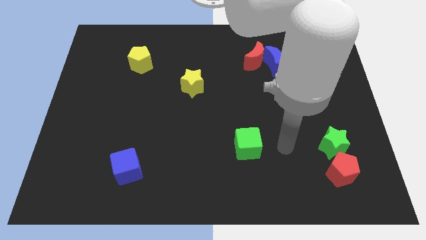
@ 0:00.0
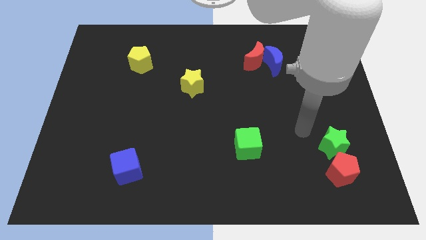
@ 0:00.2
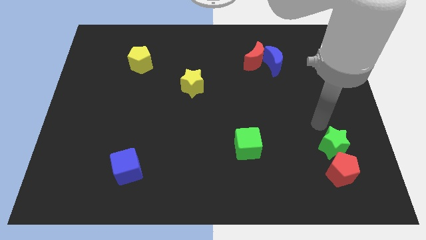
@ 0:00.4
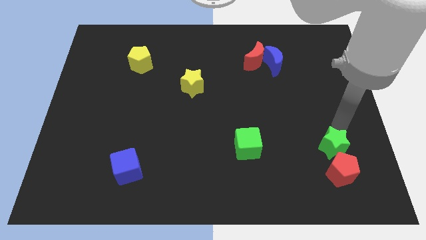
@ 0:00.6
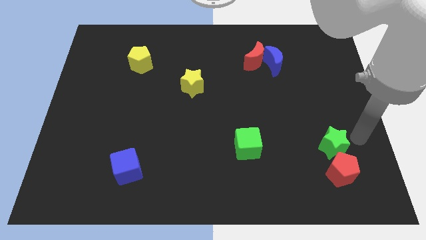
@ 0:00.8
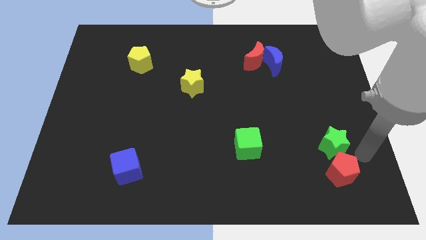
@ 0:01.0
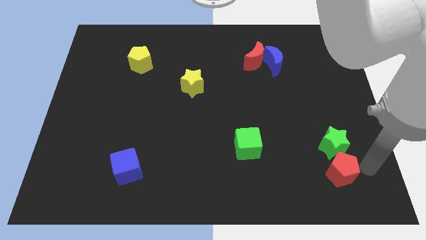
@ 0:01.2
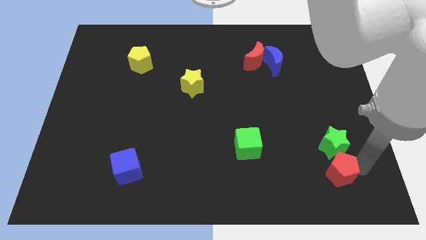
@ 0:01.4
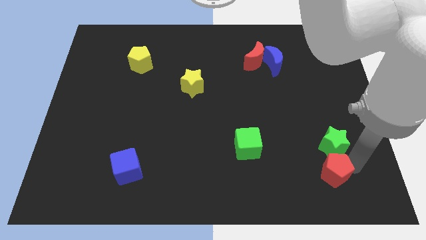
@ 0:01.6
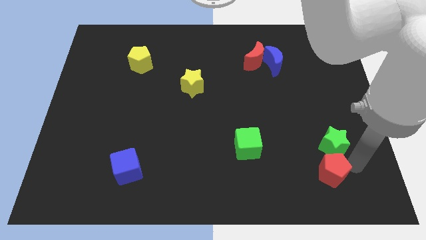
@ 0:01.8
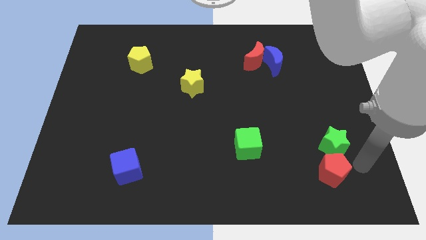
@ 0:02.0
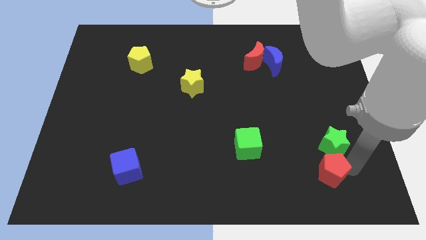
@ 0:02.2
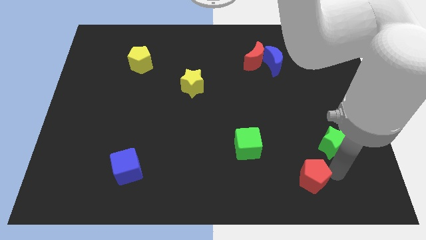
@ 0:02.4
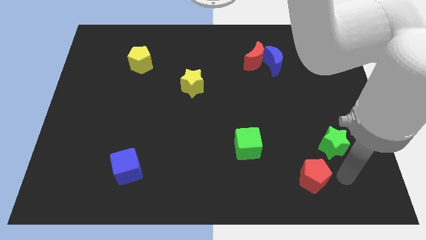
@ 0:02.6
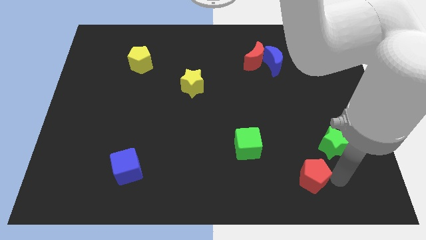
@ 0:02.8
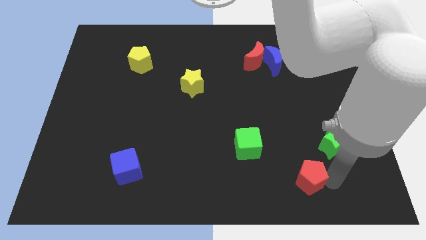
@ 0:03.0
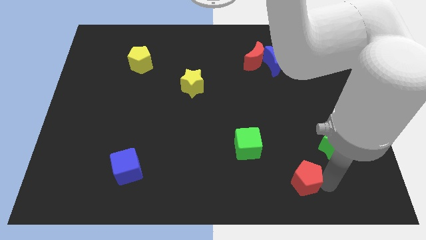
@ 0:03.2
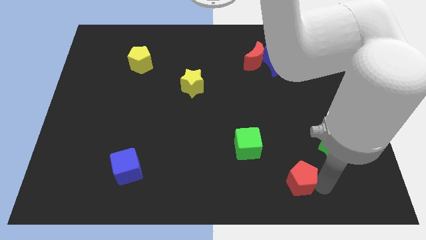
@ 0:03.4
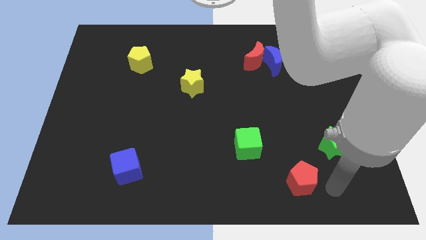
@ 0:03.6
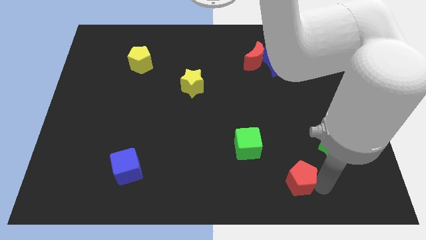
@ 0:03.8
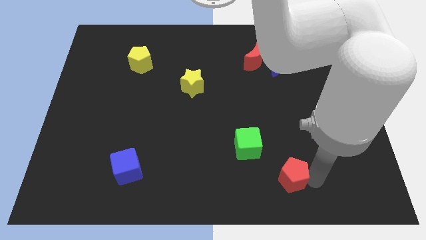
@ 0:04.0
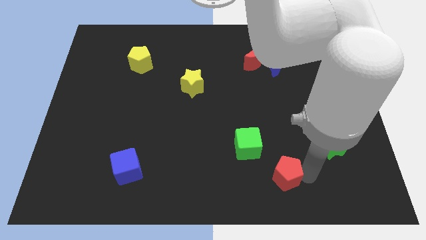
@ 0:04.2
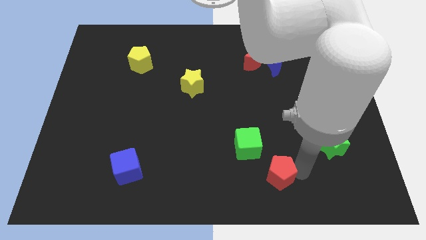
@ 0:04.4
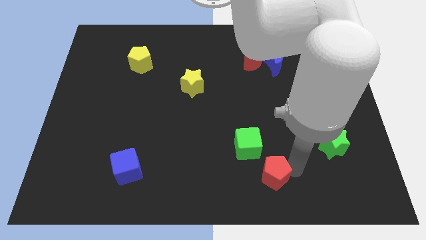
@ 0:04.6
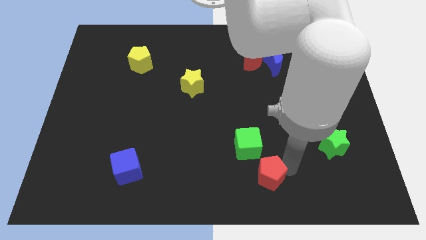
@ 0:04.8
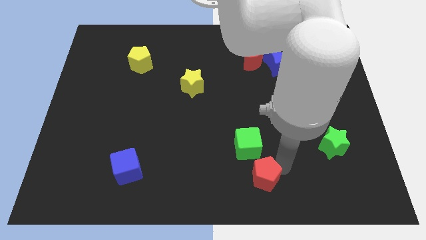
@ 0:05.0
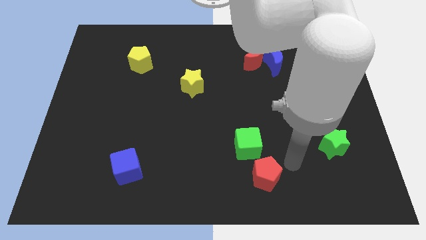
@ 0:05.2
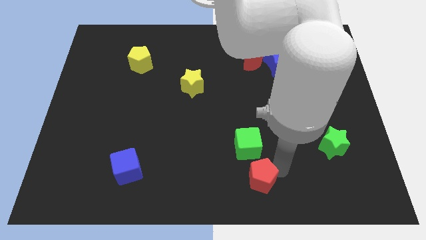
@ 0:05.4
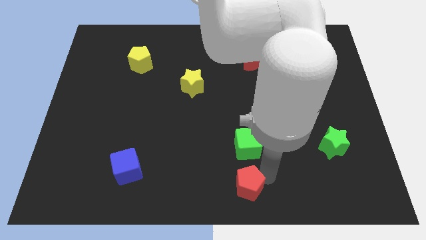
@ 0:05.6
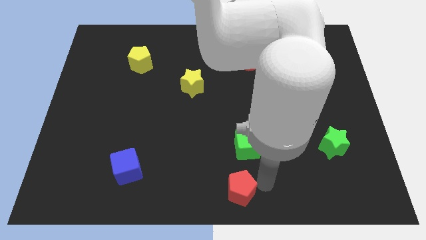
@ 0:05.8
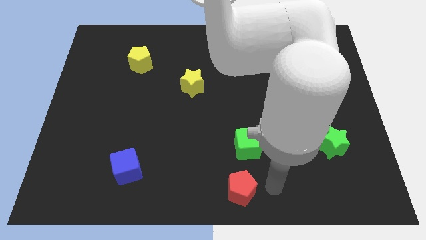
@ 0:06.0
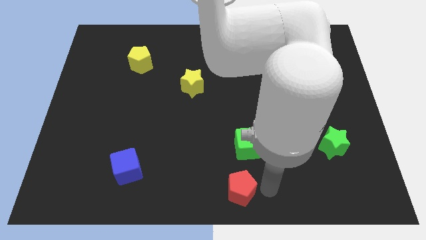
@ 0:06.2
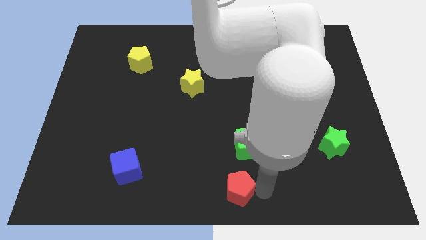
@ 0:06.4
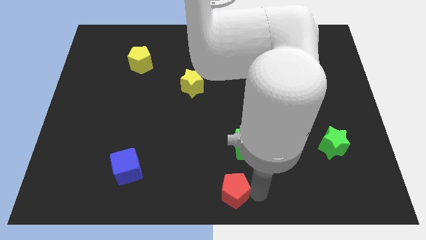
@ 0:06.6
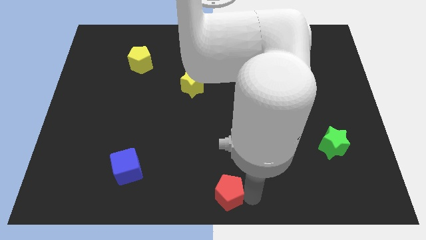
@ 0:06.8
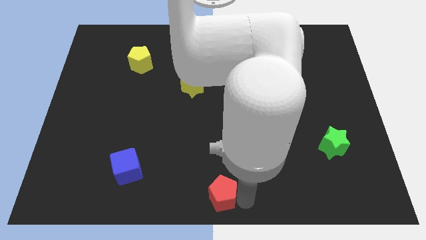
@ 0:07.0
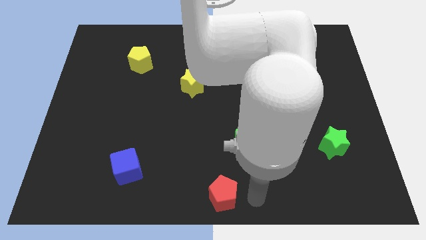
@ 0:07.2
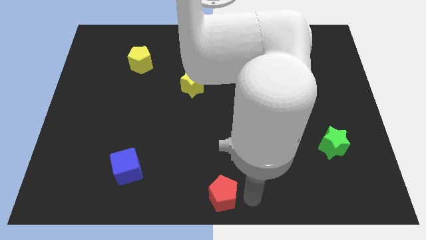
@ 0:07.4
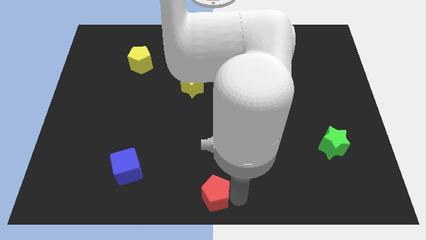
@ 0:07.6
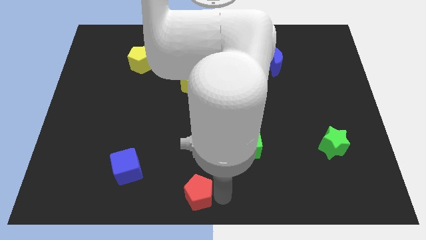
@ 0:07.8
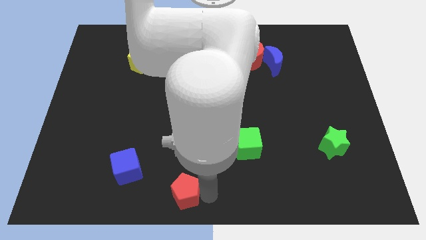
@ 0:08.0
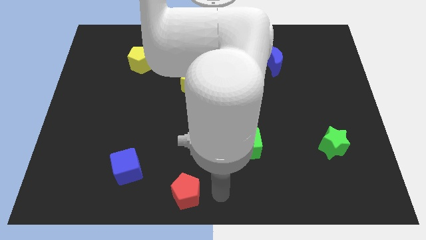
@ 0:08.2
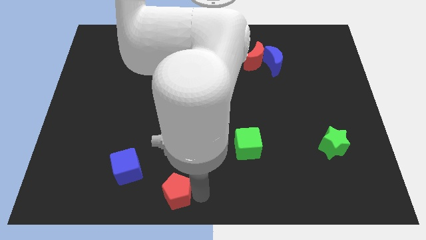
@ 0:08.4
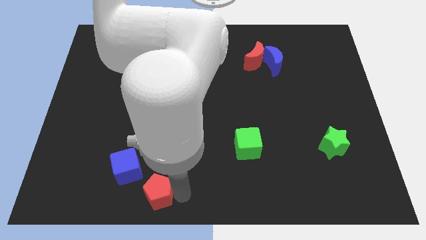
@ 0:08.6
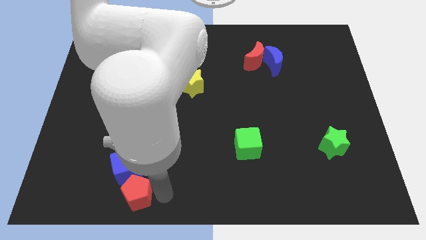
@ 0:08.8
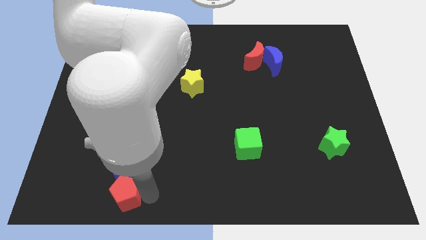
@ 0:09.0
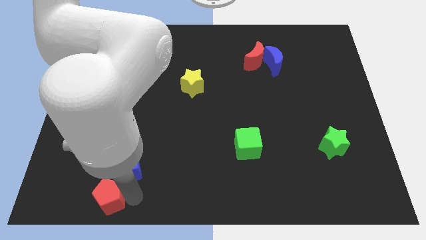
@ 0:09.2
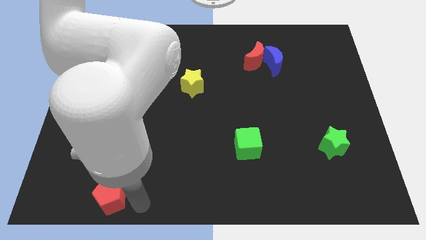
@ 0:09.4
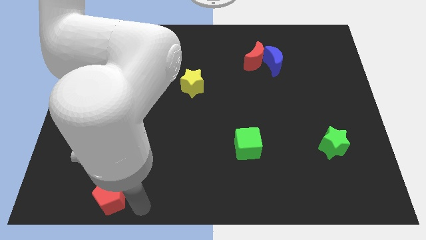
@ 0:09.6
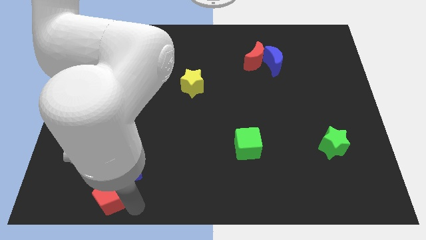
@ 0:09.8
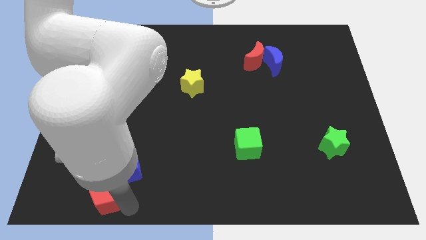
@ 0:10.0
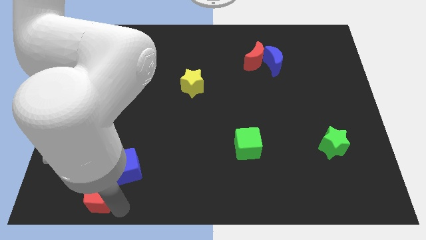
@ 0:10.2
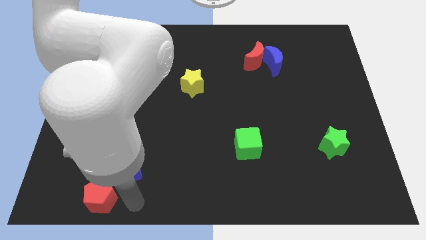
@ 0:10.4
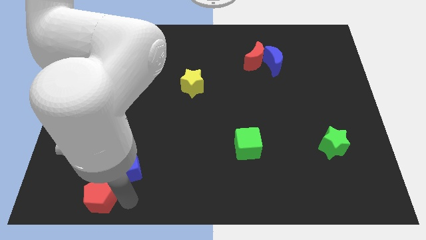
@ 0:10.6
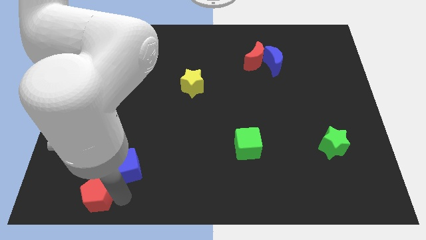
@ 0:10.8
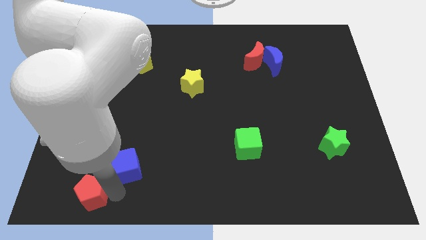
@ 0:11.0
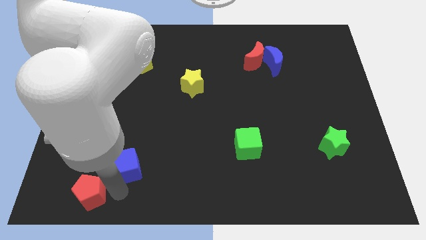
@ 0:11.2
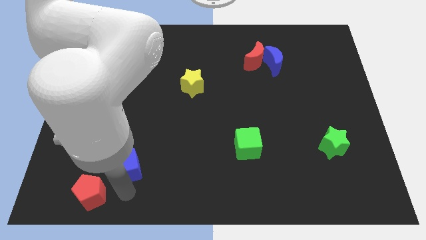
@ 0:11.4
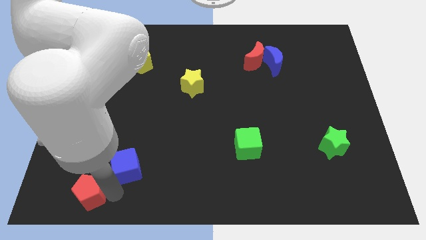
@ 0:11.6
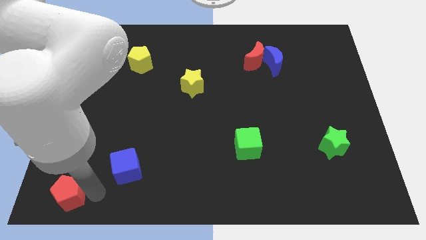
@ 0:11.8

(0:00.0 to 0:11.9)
put the red pentagon to the lower left corner

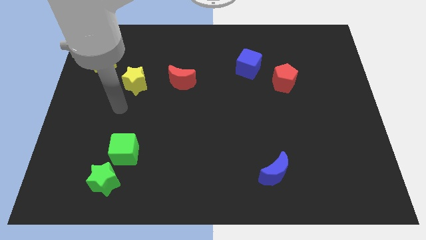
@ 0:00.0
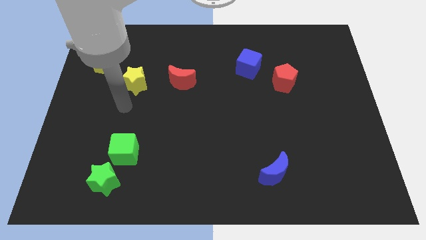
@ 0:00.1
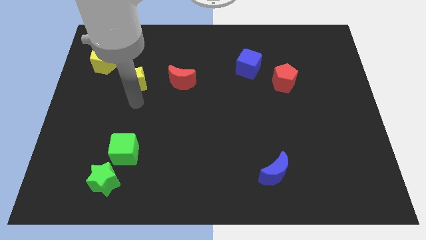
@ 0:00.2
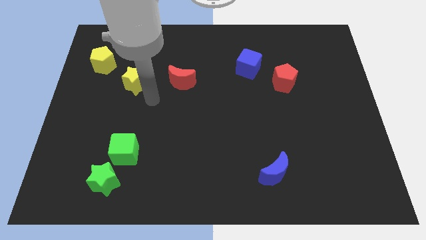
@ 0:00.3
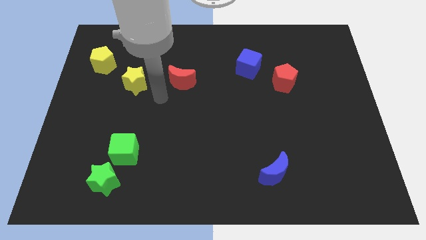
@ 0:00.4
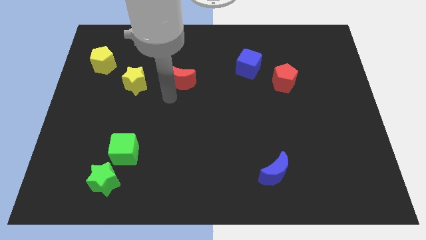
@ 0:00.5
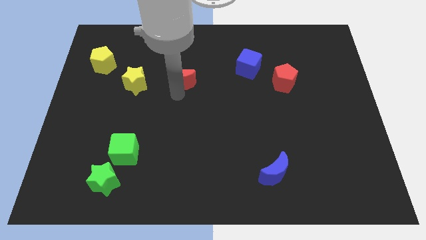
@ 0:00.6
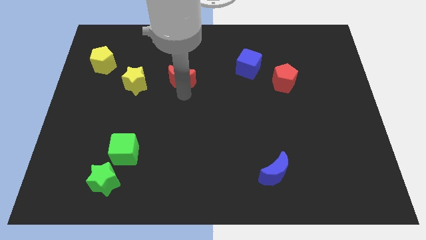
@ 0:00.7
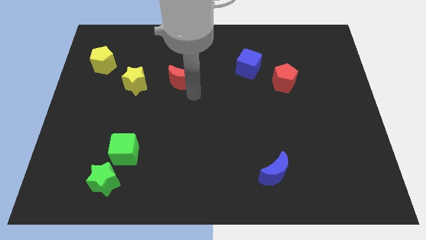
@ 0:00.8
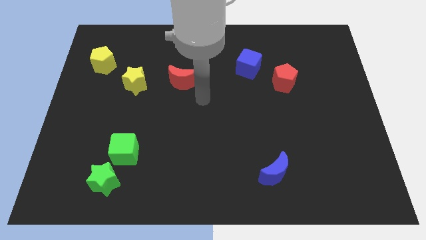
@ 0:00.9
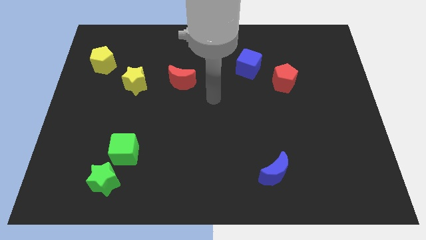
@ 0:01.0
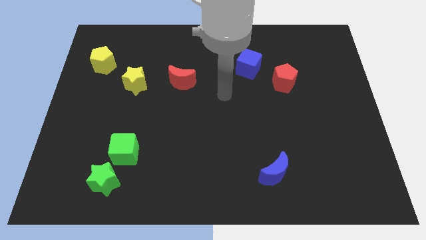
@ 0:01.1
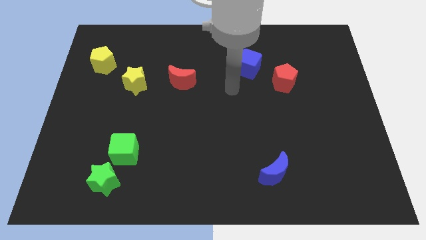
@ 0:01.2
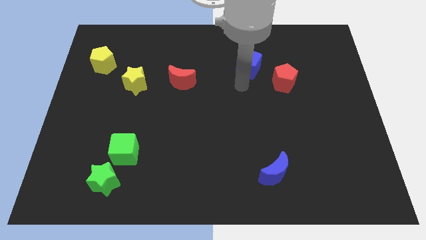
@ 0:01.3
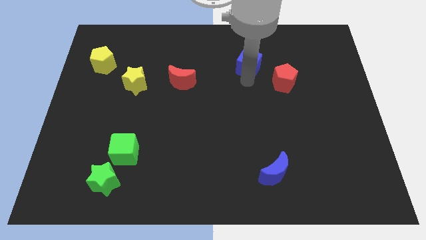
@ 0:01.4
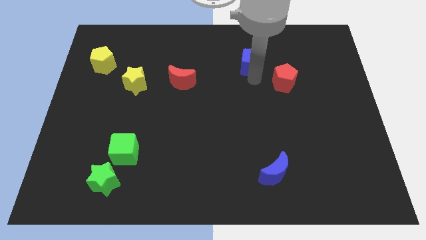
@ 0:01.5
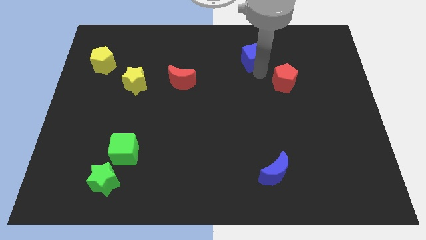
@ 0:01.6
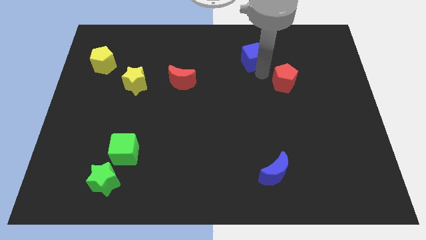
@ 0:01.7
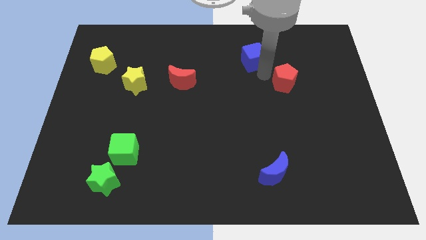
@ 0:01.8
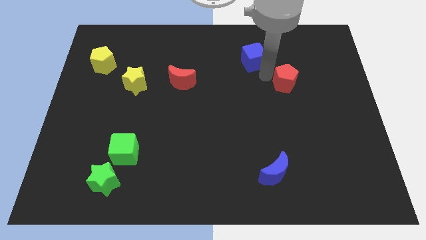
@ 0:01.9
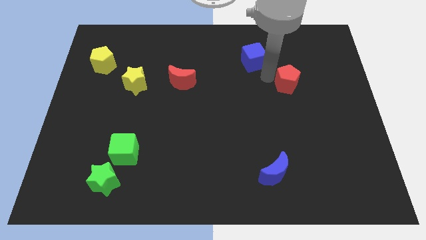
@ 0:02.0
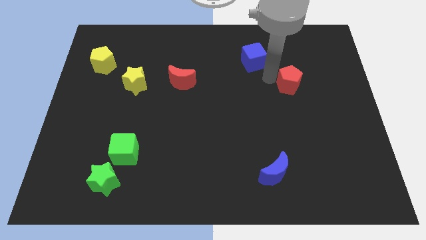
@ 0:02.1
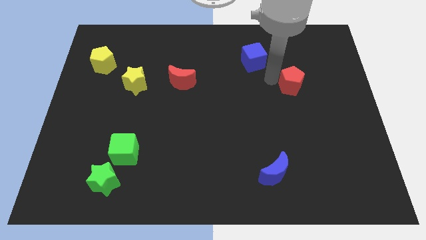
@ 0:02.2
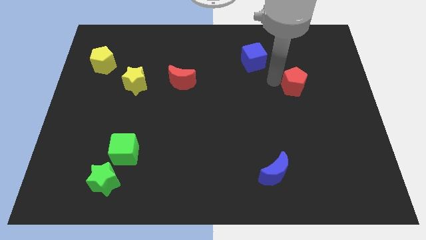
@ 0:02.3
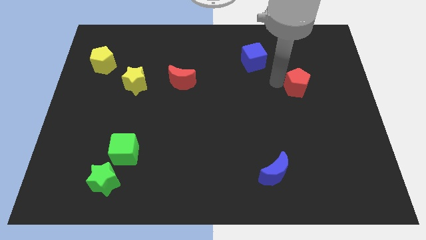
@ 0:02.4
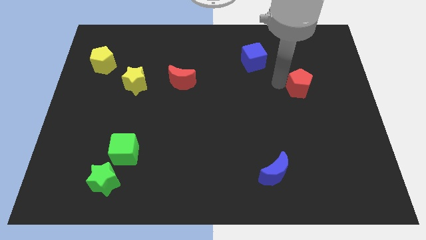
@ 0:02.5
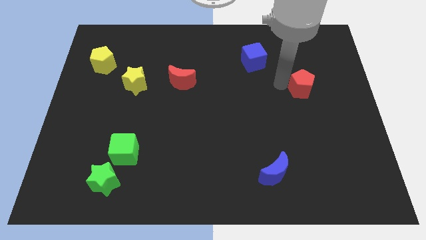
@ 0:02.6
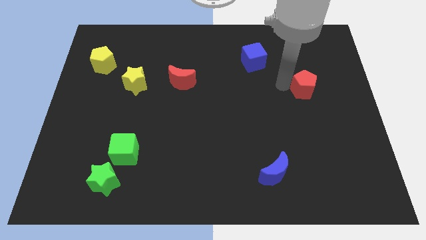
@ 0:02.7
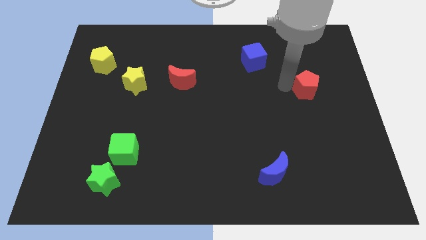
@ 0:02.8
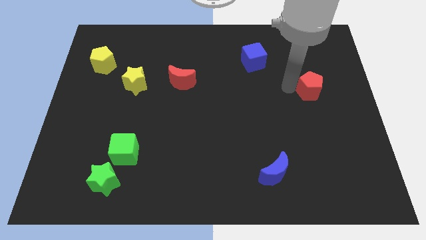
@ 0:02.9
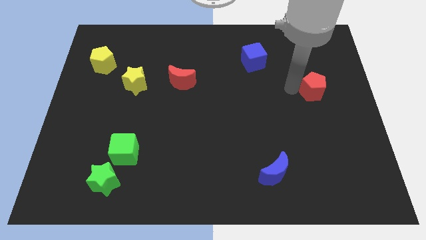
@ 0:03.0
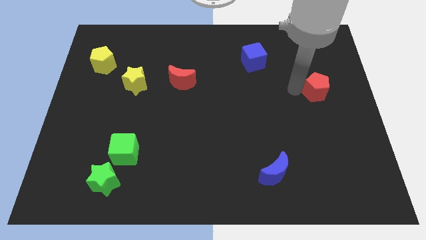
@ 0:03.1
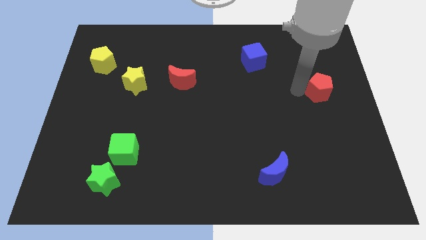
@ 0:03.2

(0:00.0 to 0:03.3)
move the red pentagon to the right side of the board
